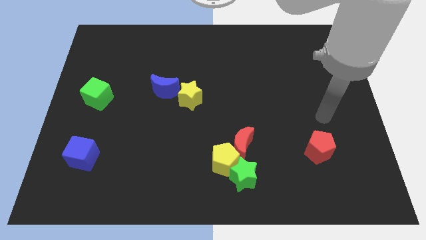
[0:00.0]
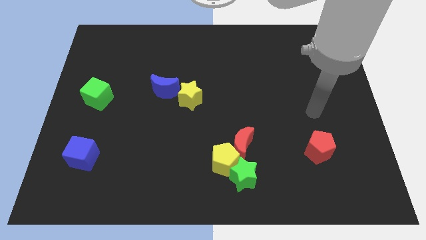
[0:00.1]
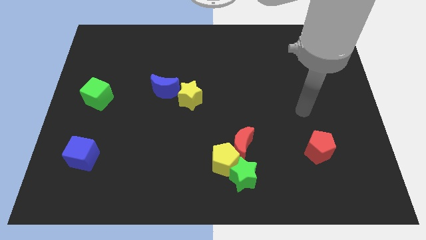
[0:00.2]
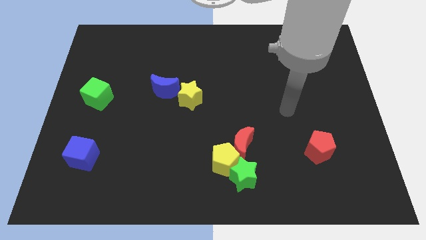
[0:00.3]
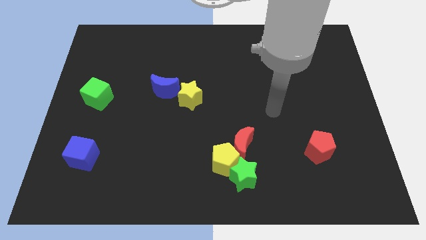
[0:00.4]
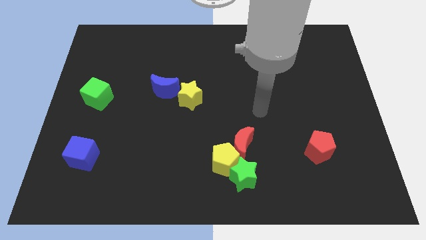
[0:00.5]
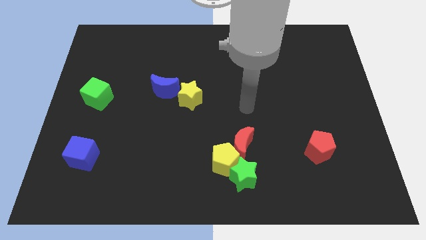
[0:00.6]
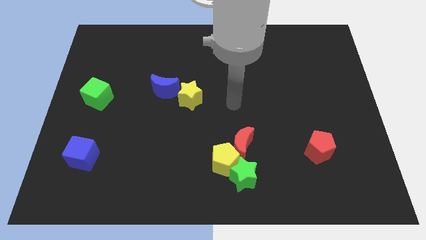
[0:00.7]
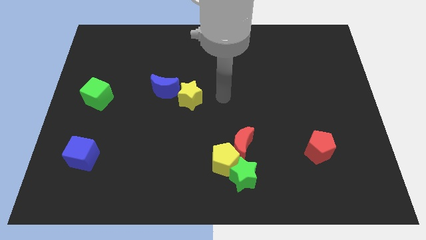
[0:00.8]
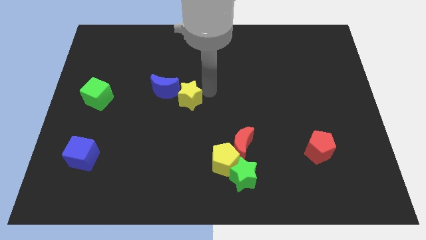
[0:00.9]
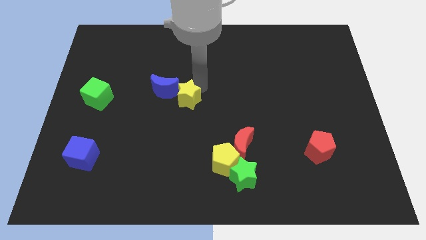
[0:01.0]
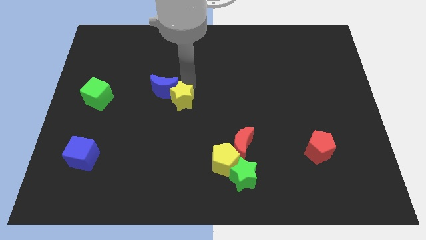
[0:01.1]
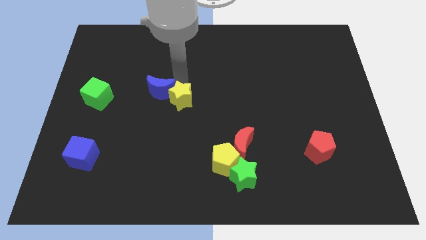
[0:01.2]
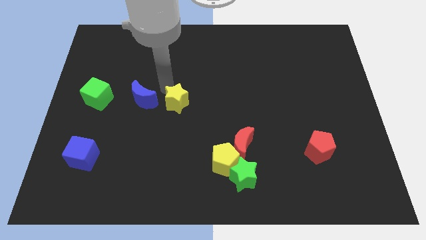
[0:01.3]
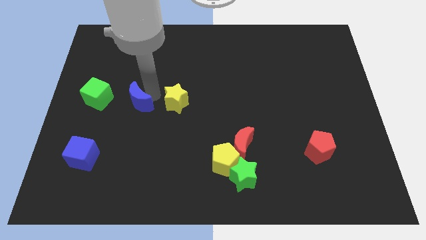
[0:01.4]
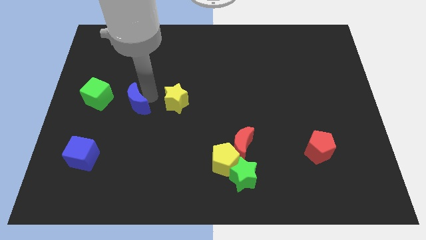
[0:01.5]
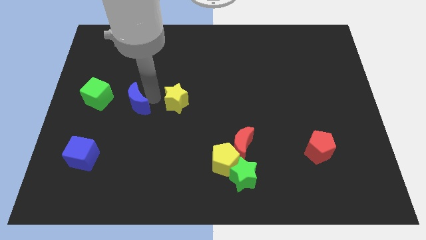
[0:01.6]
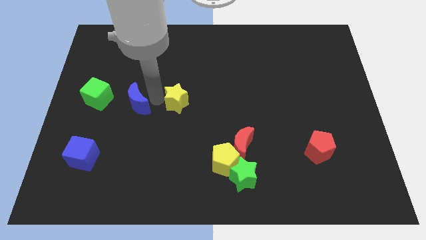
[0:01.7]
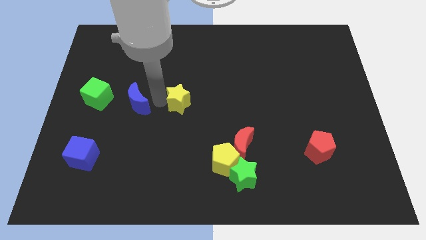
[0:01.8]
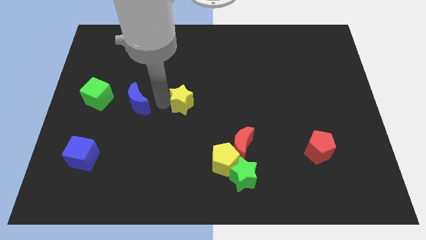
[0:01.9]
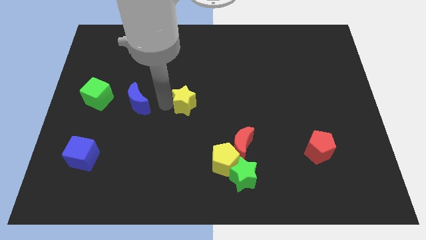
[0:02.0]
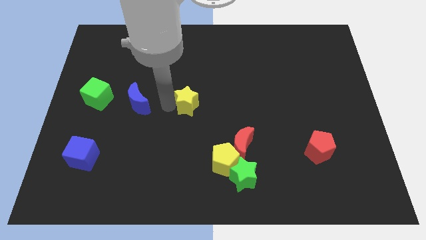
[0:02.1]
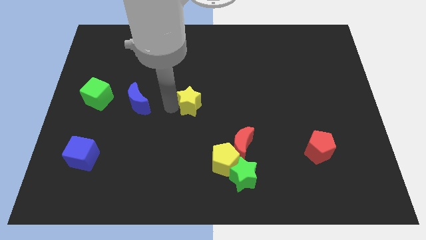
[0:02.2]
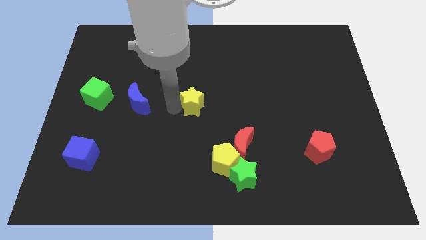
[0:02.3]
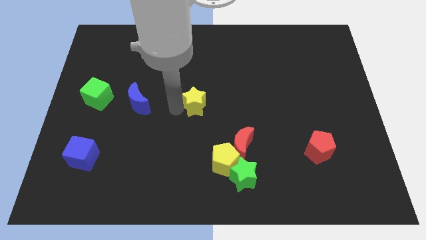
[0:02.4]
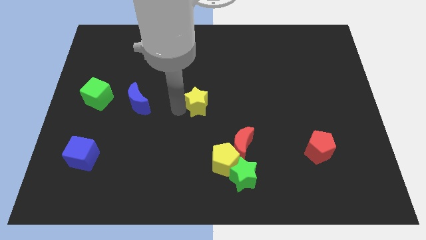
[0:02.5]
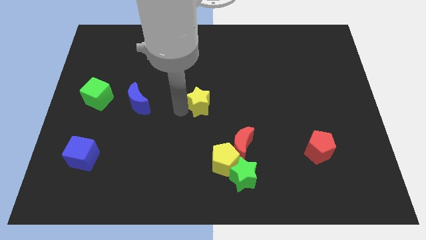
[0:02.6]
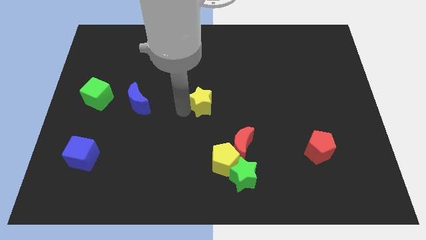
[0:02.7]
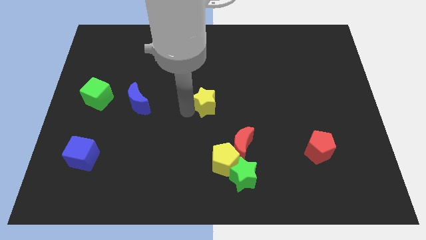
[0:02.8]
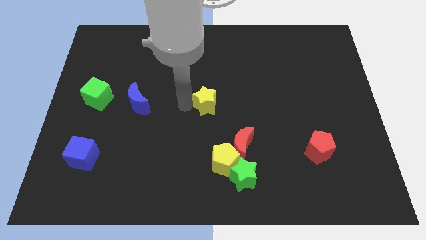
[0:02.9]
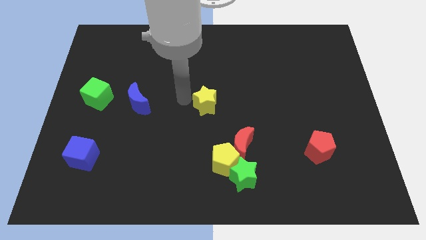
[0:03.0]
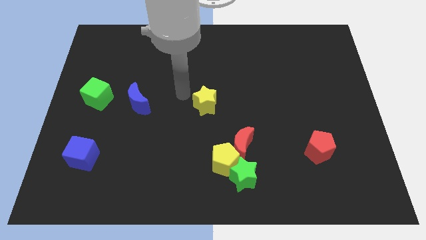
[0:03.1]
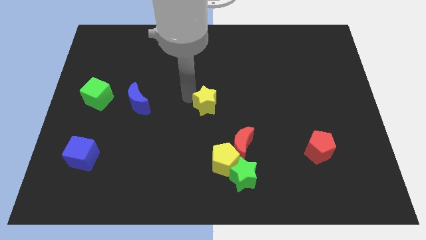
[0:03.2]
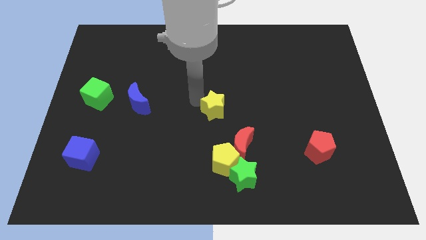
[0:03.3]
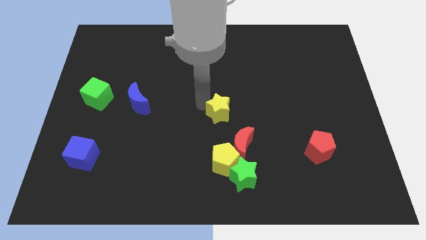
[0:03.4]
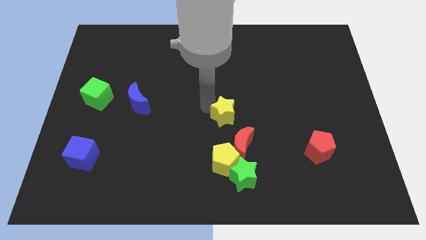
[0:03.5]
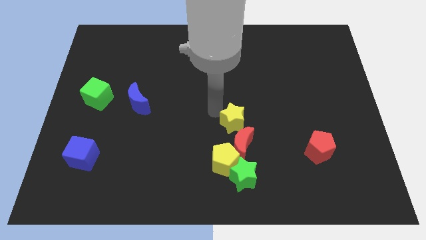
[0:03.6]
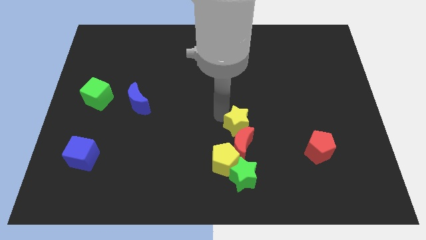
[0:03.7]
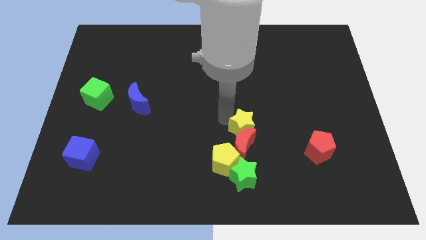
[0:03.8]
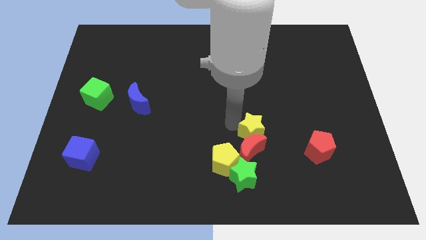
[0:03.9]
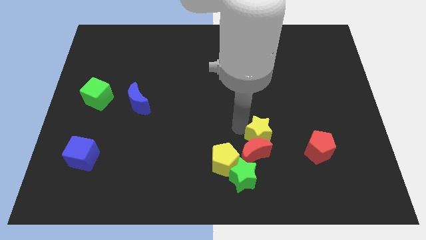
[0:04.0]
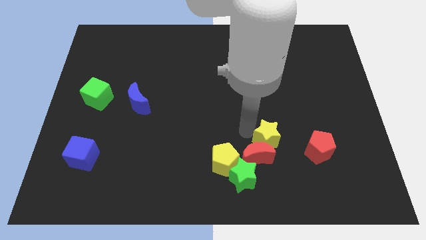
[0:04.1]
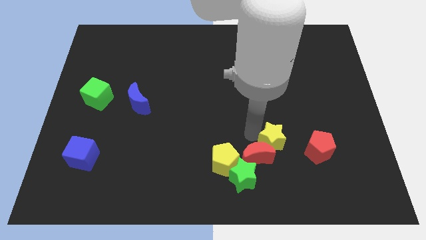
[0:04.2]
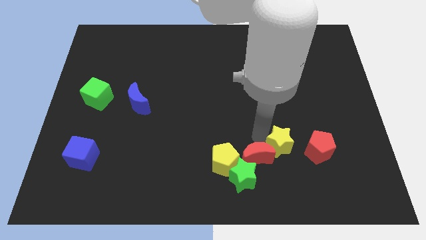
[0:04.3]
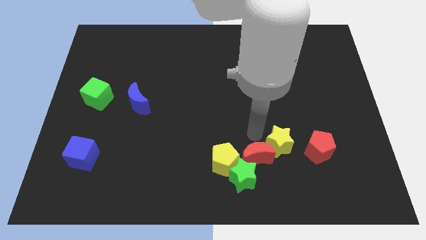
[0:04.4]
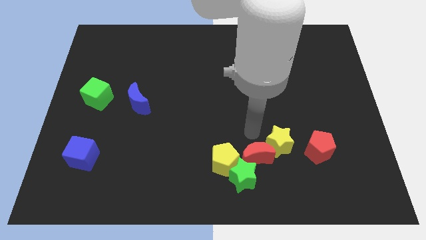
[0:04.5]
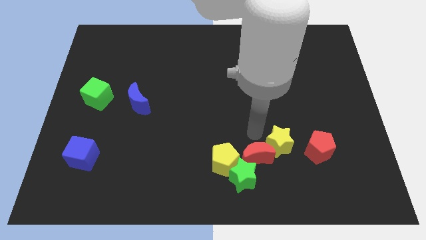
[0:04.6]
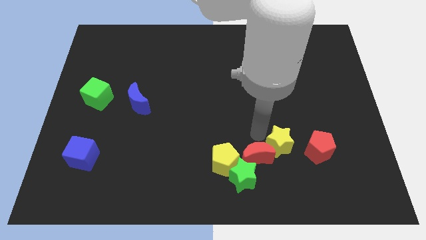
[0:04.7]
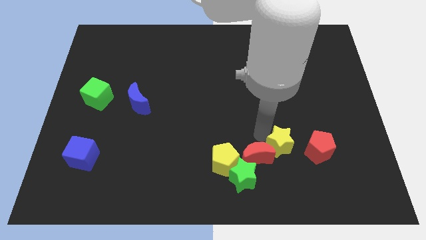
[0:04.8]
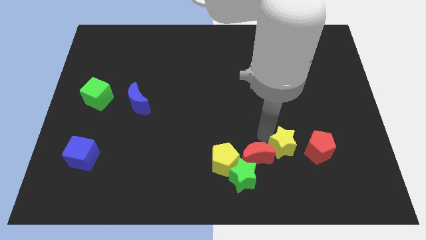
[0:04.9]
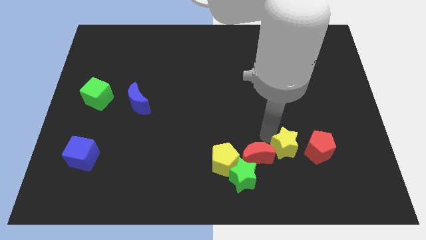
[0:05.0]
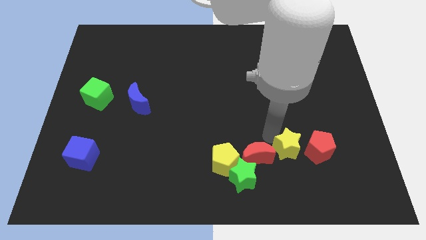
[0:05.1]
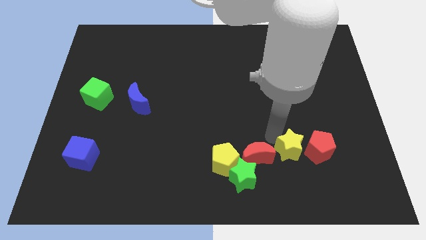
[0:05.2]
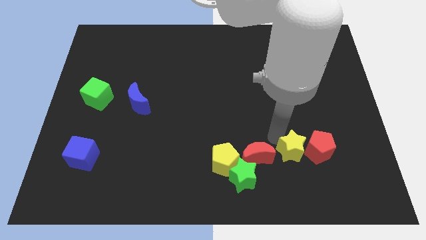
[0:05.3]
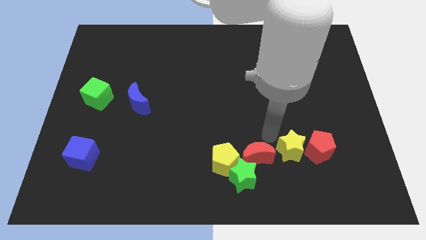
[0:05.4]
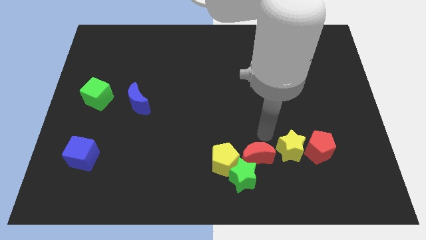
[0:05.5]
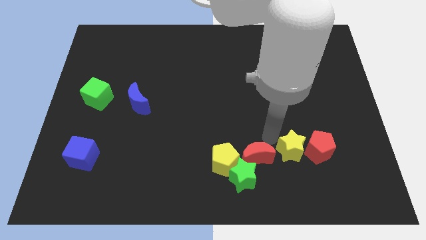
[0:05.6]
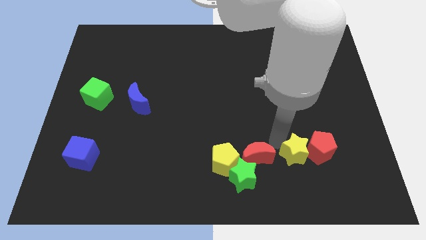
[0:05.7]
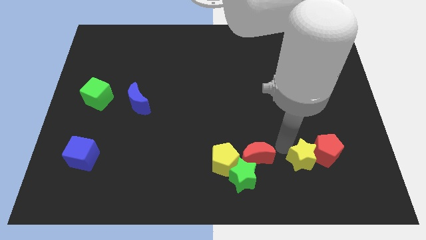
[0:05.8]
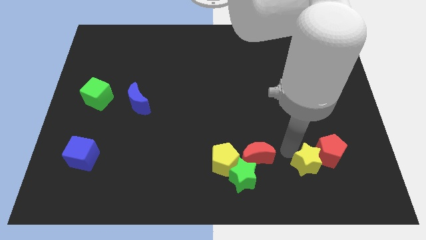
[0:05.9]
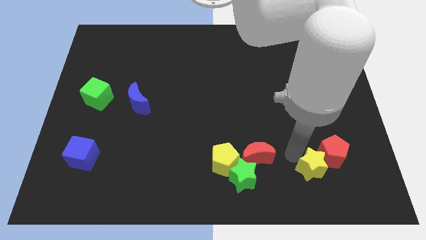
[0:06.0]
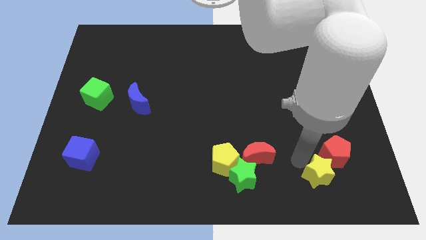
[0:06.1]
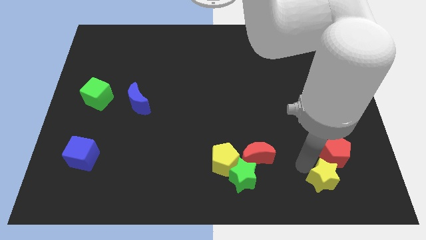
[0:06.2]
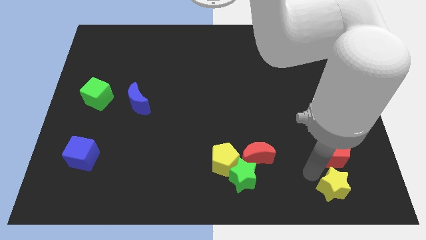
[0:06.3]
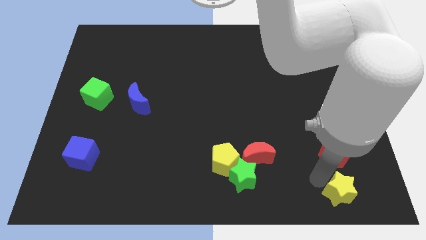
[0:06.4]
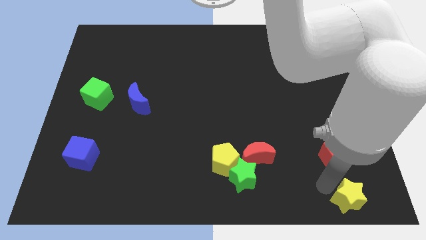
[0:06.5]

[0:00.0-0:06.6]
push the yellow star to the bottom right corner
